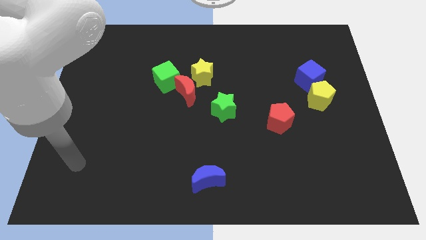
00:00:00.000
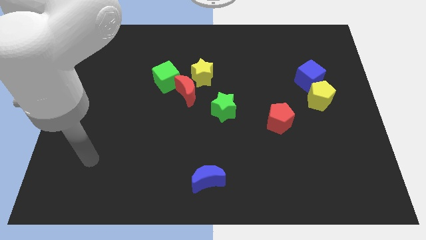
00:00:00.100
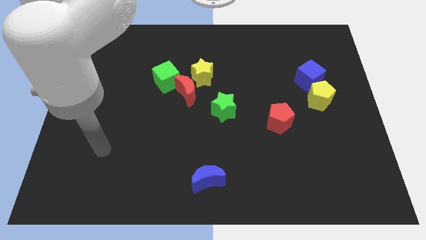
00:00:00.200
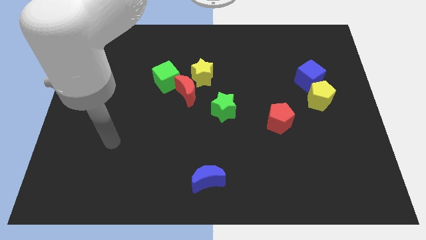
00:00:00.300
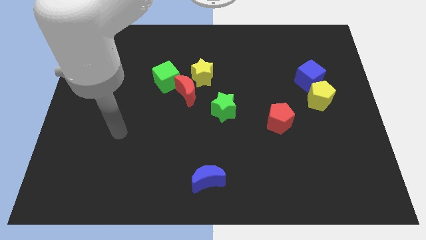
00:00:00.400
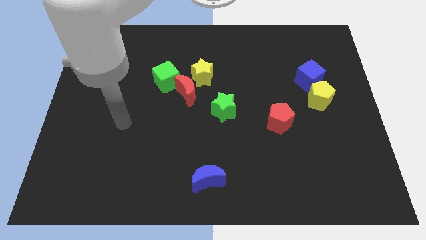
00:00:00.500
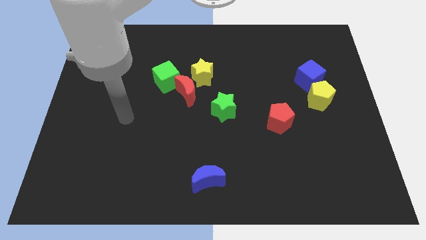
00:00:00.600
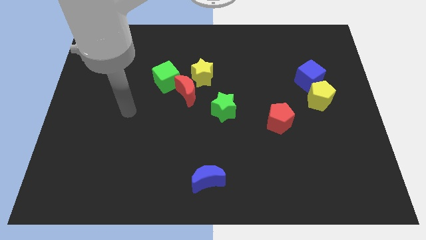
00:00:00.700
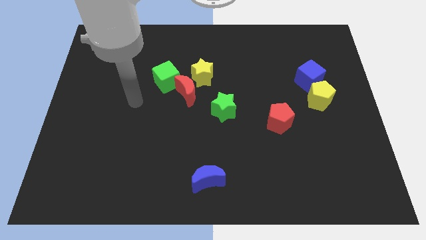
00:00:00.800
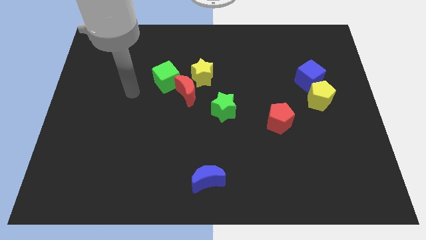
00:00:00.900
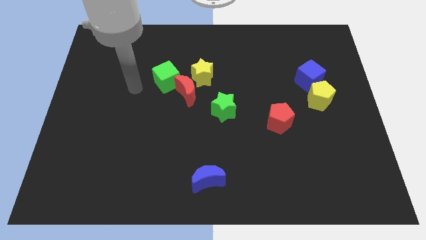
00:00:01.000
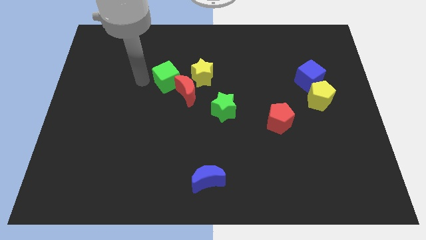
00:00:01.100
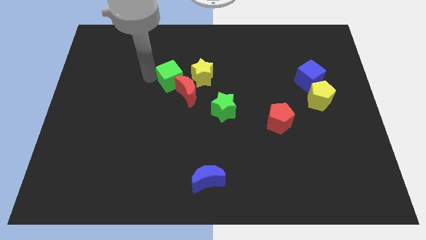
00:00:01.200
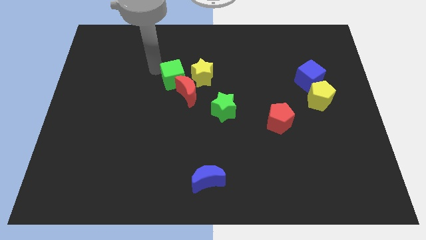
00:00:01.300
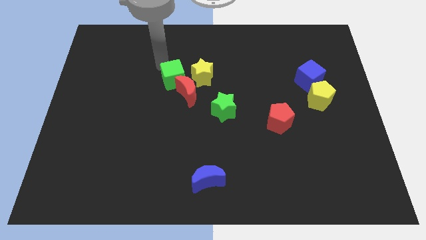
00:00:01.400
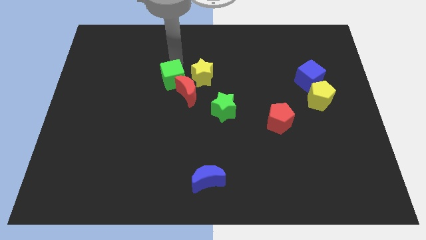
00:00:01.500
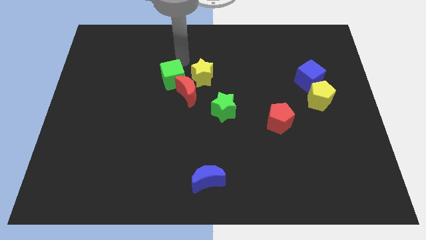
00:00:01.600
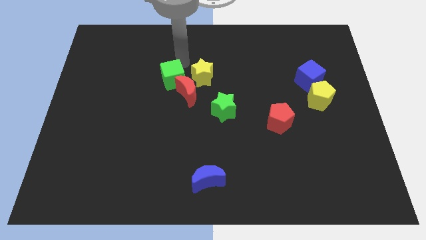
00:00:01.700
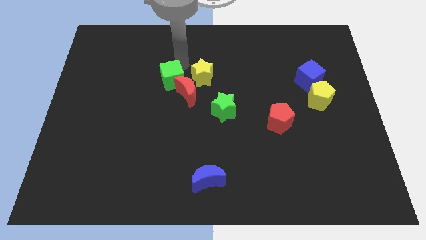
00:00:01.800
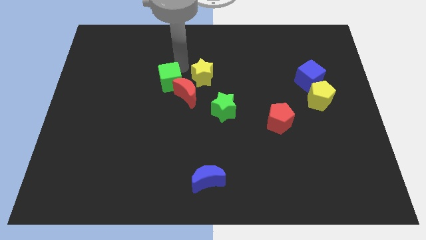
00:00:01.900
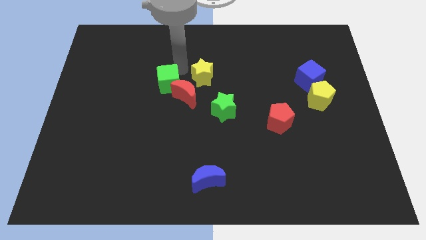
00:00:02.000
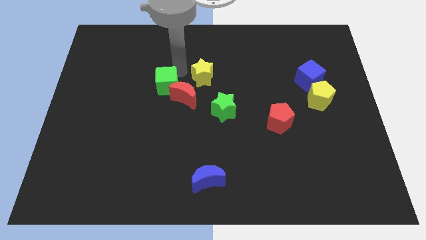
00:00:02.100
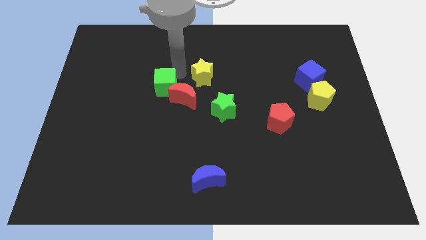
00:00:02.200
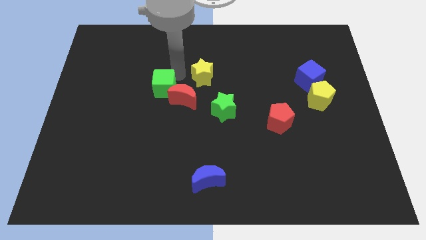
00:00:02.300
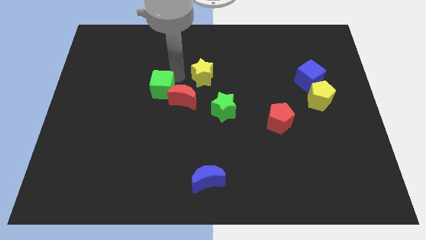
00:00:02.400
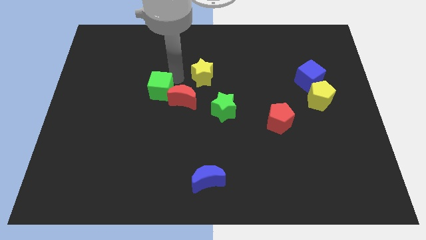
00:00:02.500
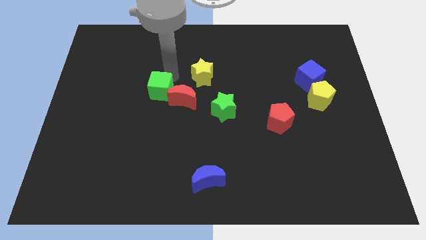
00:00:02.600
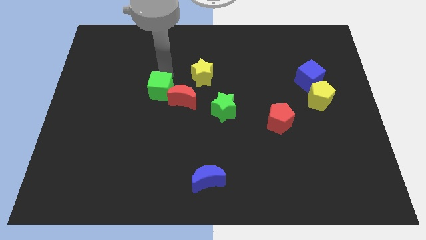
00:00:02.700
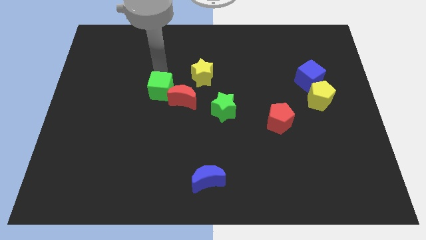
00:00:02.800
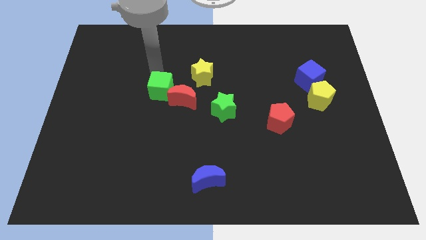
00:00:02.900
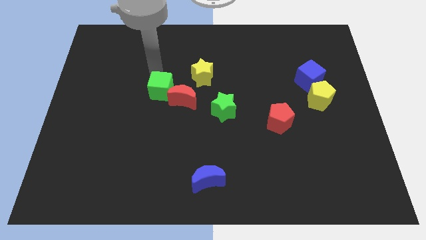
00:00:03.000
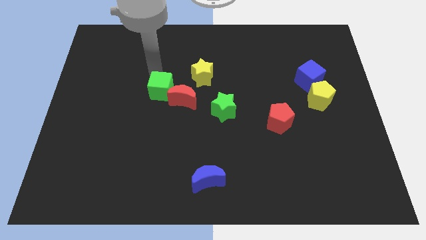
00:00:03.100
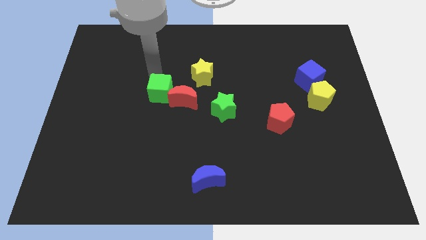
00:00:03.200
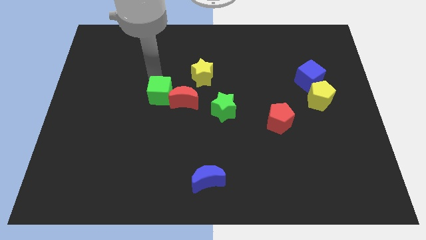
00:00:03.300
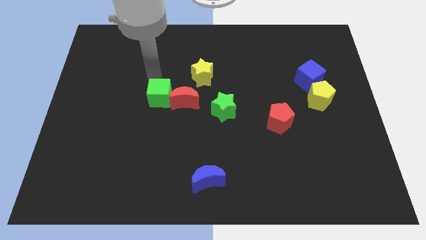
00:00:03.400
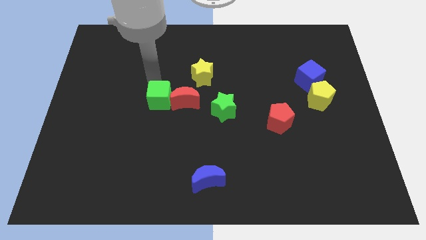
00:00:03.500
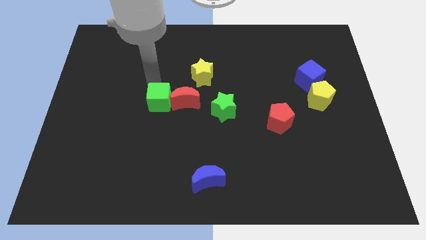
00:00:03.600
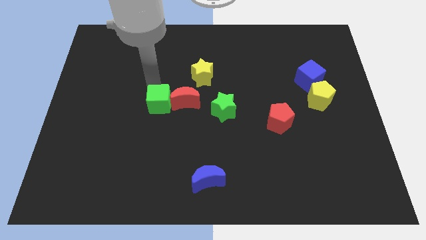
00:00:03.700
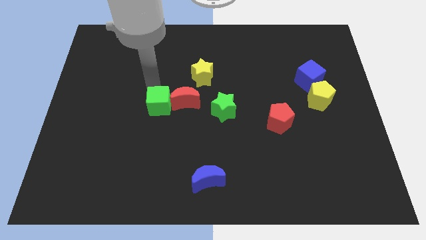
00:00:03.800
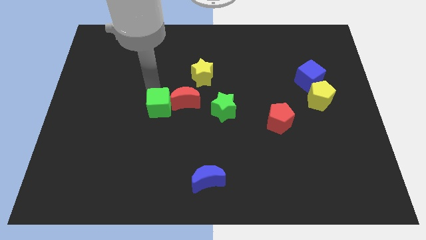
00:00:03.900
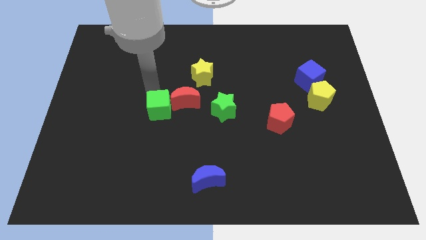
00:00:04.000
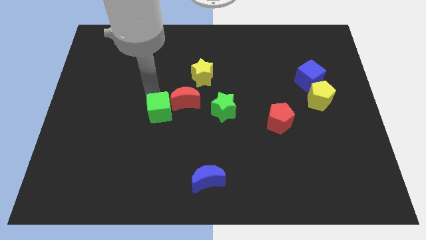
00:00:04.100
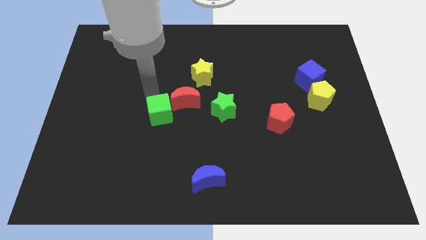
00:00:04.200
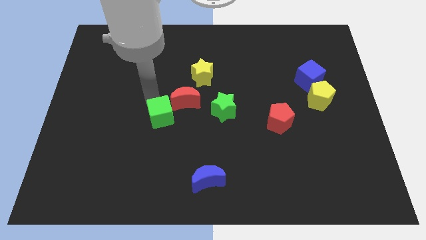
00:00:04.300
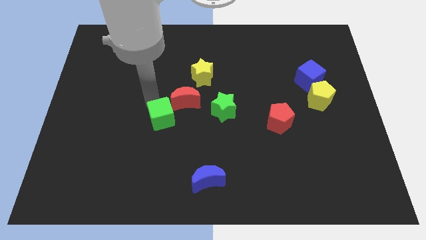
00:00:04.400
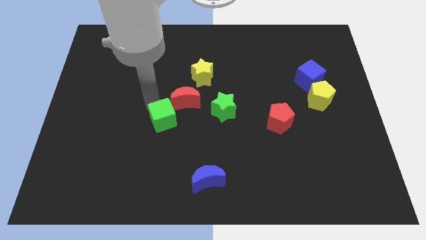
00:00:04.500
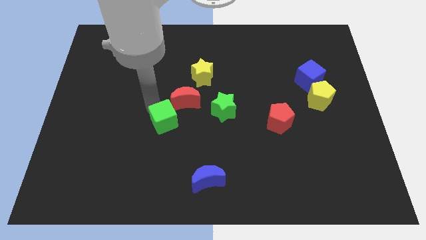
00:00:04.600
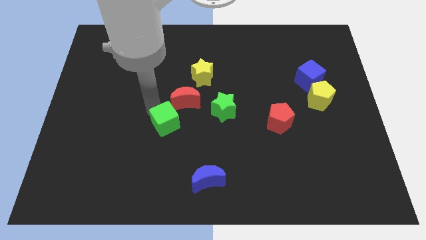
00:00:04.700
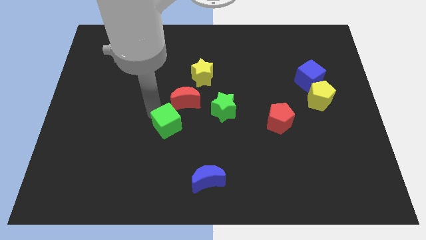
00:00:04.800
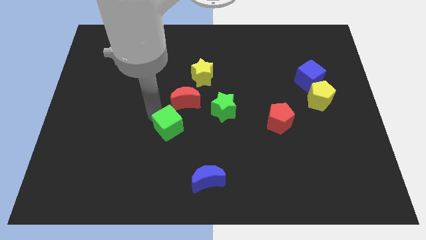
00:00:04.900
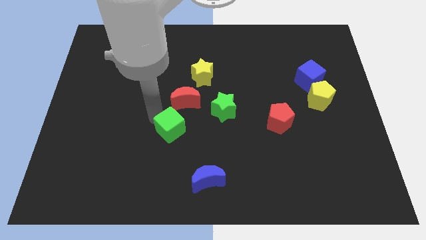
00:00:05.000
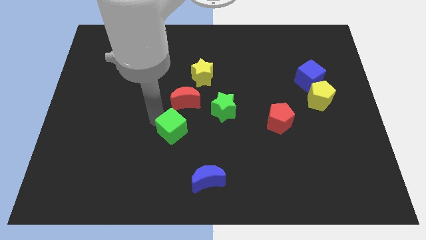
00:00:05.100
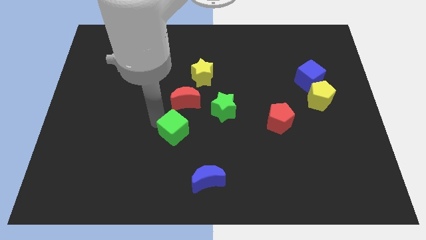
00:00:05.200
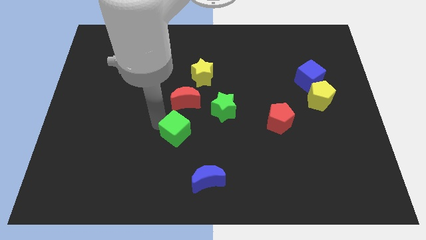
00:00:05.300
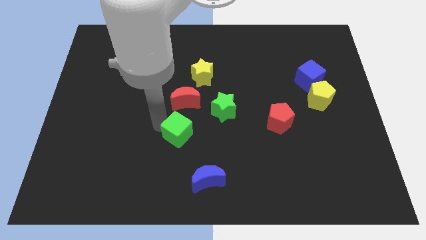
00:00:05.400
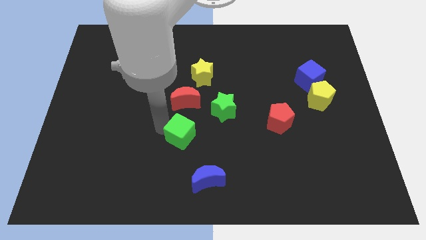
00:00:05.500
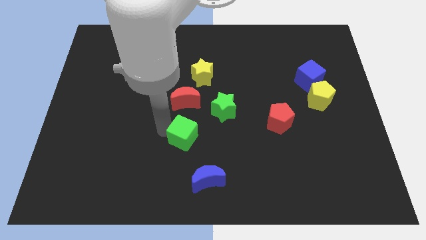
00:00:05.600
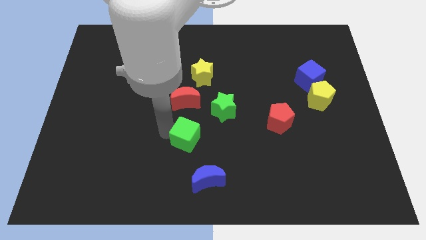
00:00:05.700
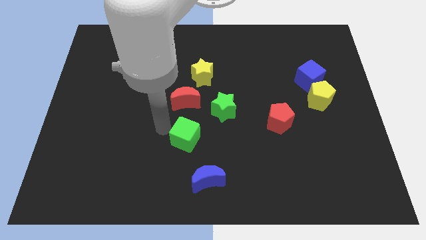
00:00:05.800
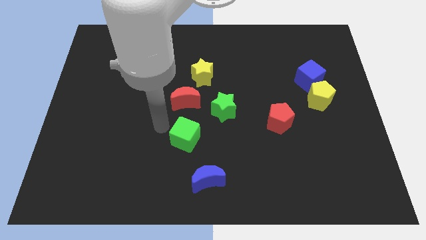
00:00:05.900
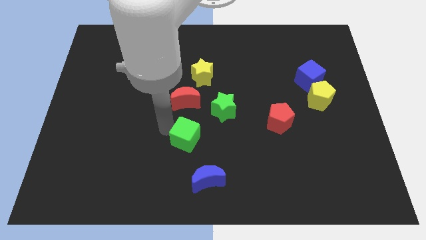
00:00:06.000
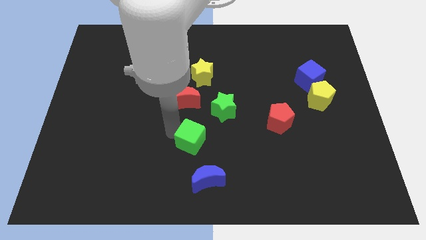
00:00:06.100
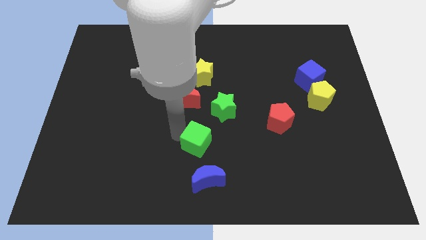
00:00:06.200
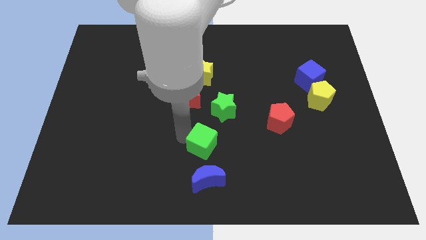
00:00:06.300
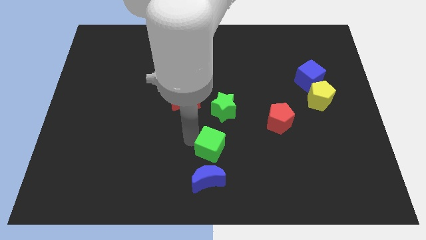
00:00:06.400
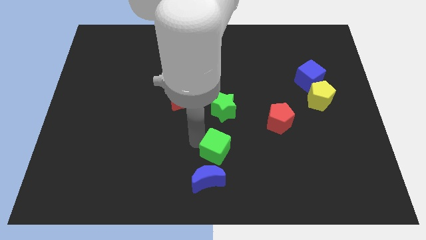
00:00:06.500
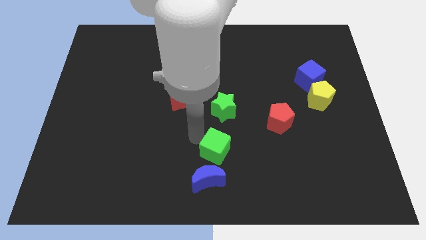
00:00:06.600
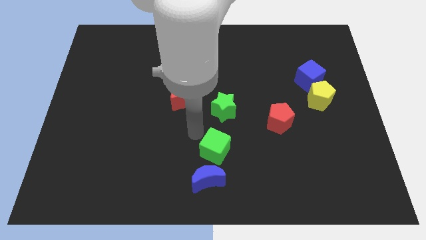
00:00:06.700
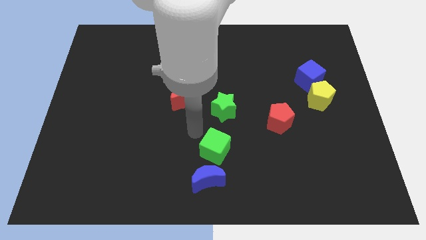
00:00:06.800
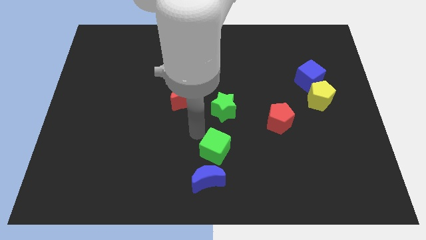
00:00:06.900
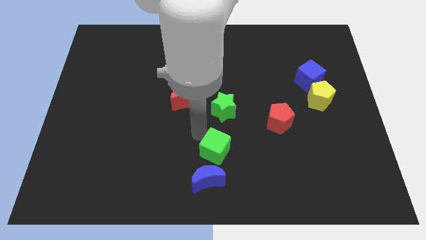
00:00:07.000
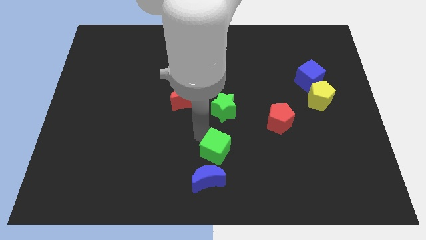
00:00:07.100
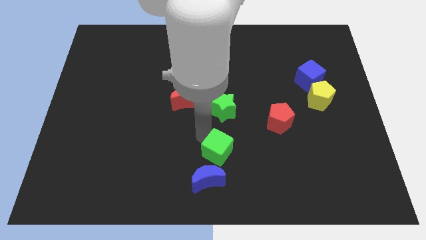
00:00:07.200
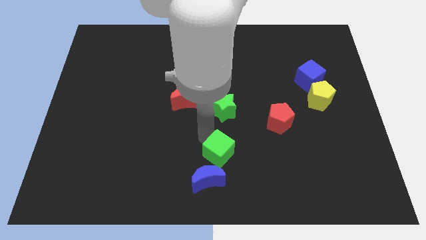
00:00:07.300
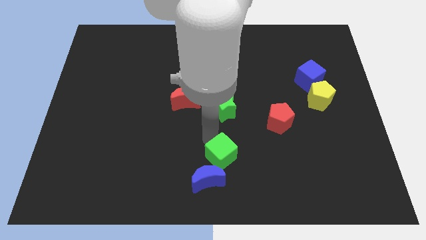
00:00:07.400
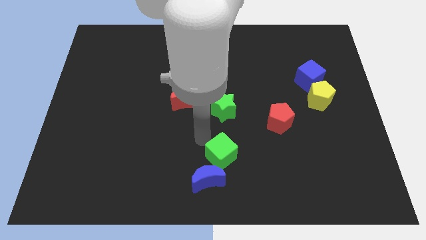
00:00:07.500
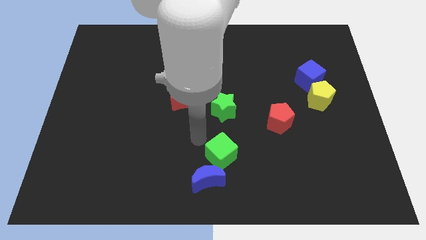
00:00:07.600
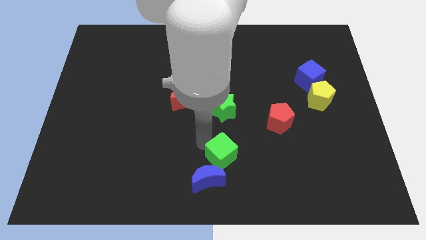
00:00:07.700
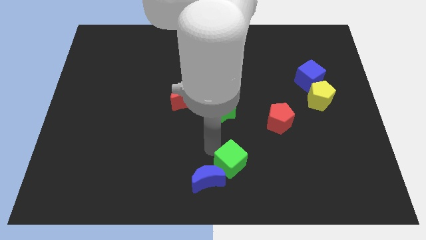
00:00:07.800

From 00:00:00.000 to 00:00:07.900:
move the green cube right of the blue moon
